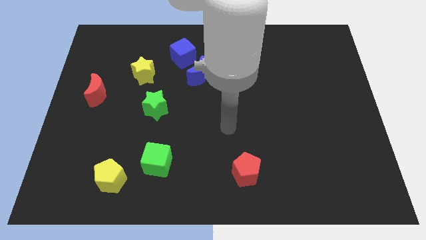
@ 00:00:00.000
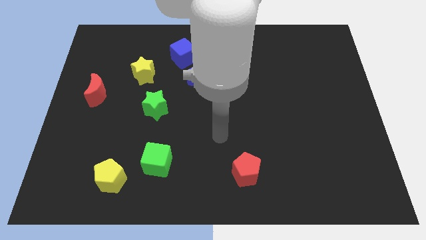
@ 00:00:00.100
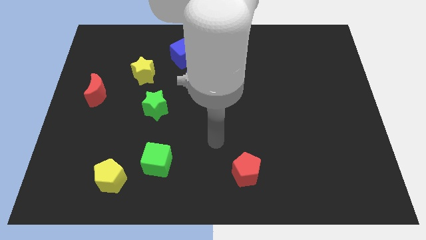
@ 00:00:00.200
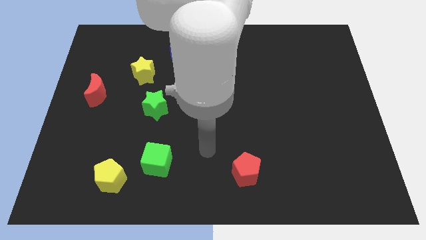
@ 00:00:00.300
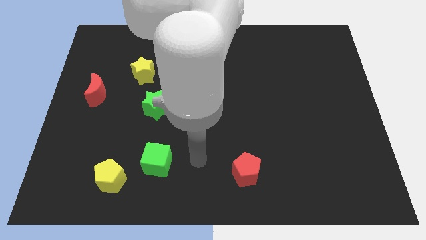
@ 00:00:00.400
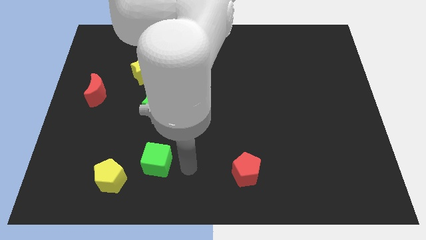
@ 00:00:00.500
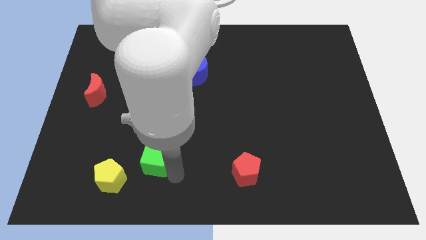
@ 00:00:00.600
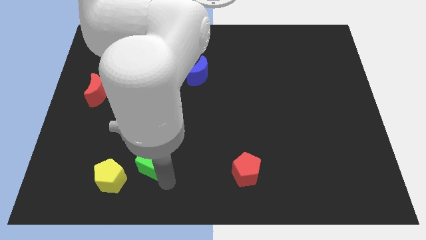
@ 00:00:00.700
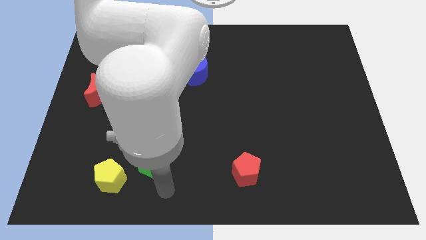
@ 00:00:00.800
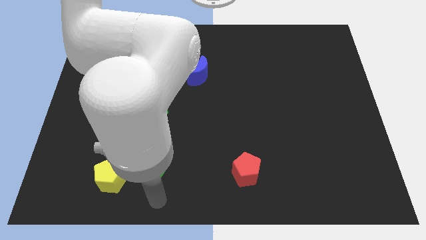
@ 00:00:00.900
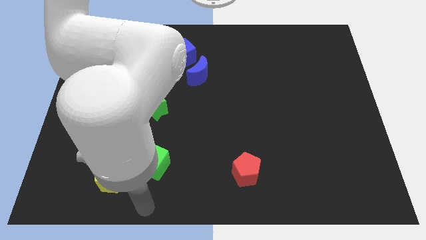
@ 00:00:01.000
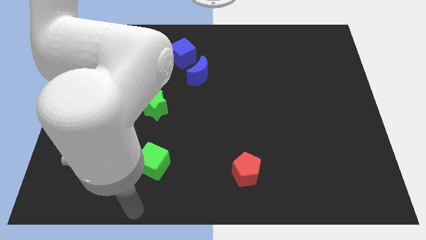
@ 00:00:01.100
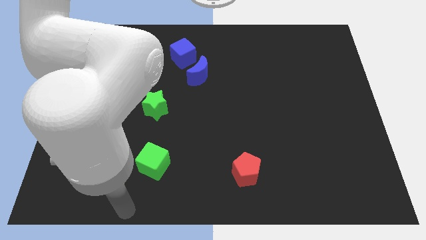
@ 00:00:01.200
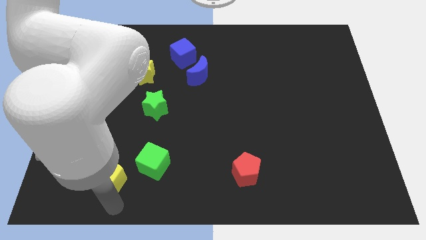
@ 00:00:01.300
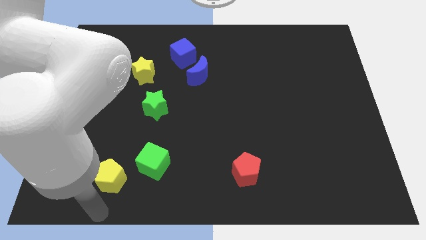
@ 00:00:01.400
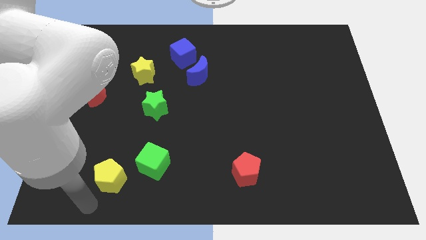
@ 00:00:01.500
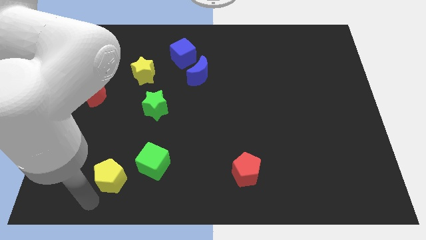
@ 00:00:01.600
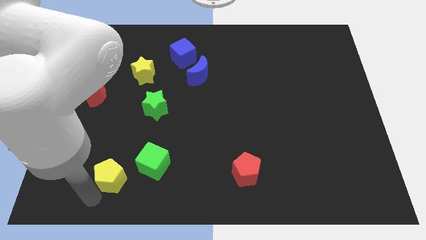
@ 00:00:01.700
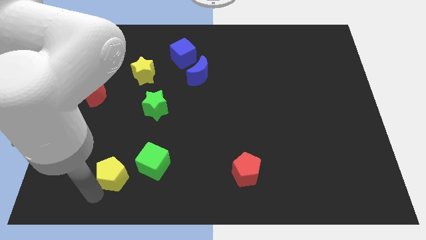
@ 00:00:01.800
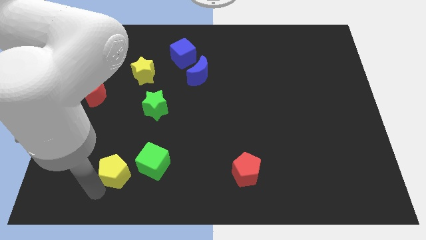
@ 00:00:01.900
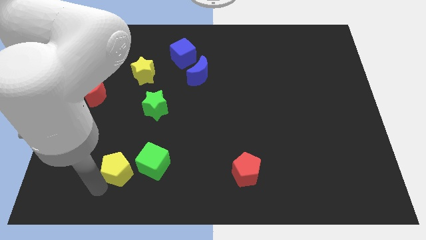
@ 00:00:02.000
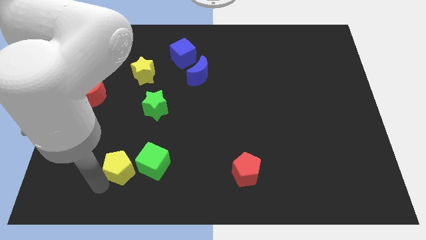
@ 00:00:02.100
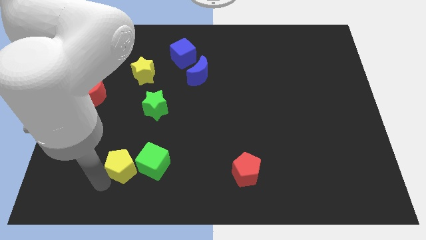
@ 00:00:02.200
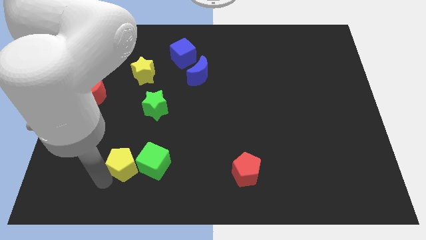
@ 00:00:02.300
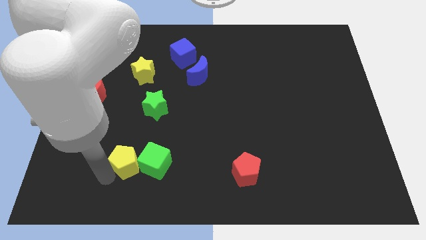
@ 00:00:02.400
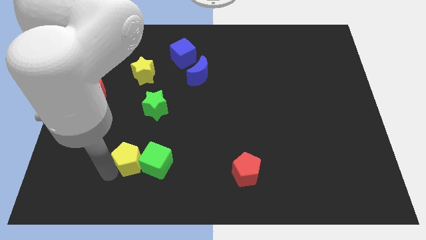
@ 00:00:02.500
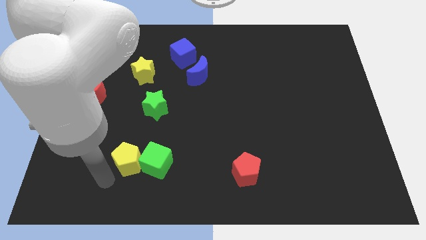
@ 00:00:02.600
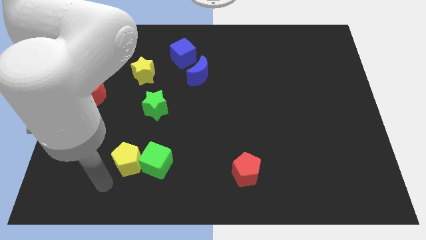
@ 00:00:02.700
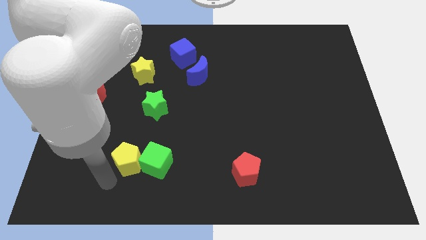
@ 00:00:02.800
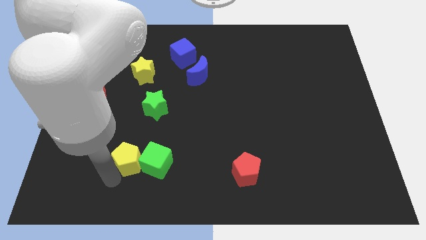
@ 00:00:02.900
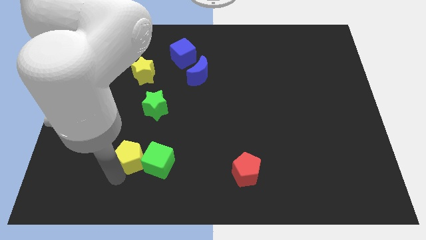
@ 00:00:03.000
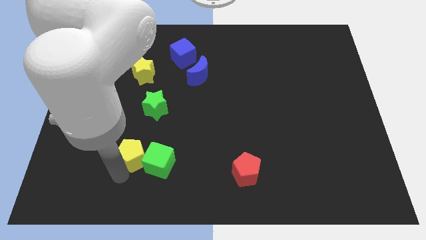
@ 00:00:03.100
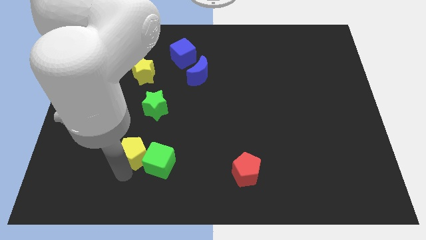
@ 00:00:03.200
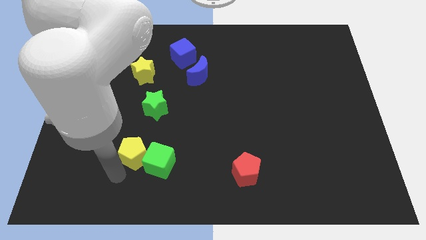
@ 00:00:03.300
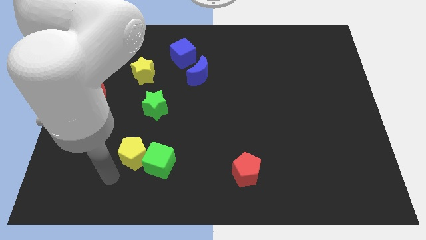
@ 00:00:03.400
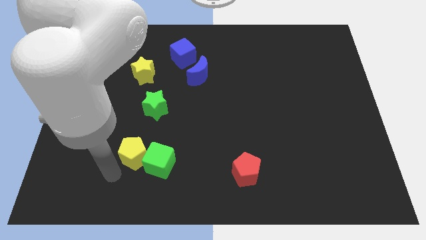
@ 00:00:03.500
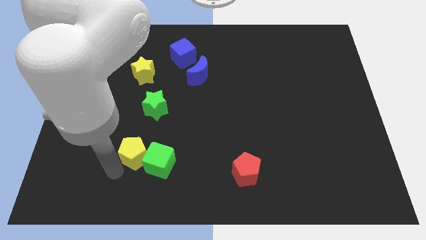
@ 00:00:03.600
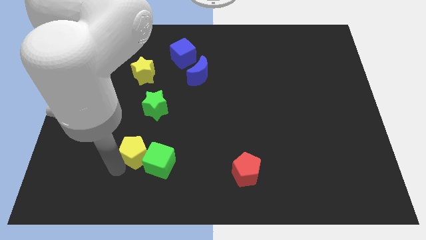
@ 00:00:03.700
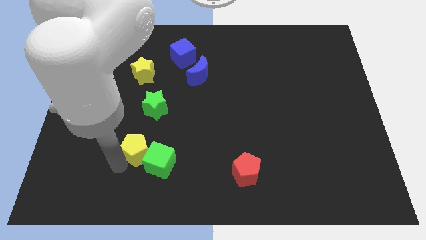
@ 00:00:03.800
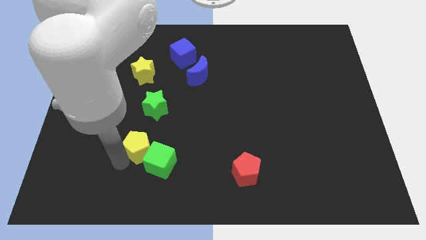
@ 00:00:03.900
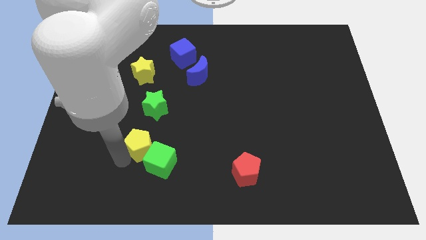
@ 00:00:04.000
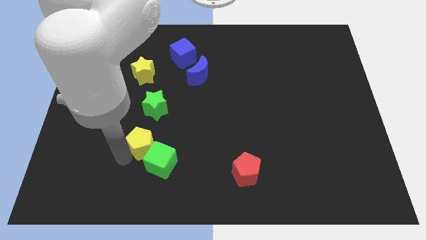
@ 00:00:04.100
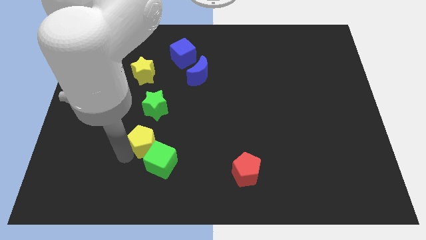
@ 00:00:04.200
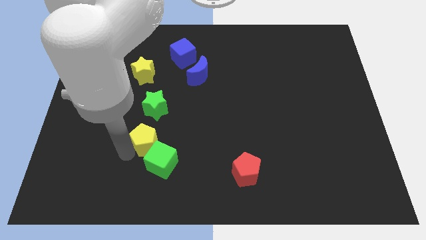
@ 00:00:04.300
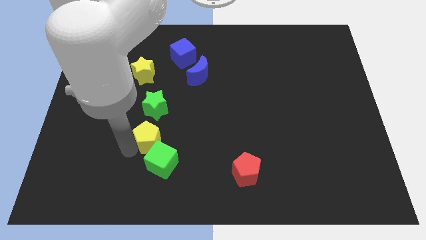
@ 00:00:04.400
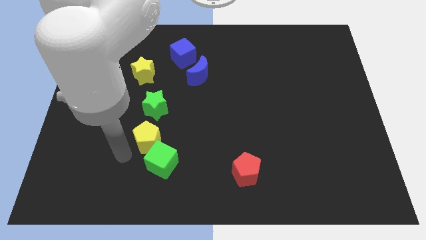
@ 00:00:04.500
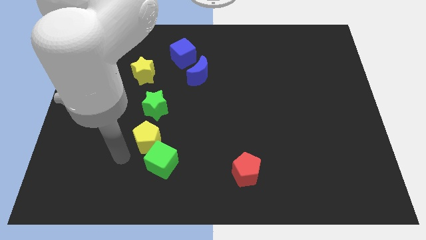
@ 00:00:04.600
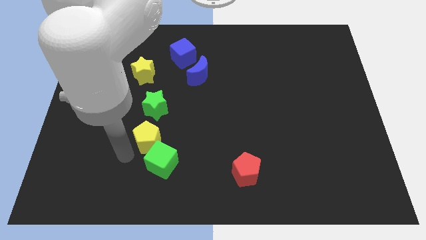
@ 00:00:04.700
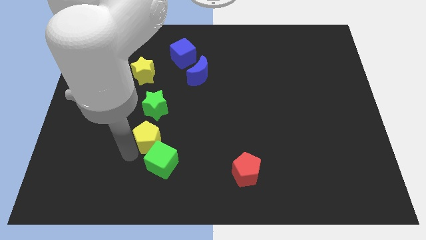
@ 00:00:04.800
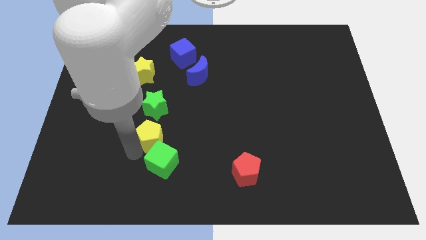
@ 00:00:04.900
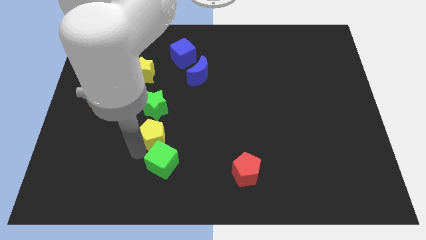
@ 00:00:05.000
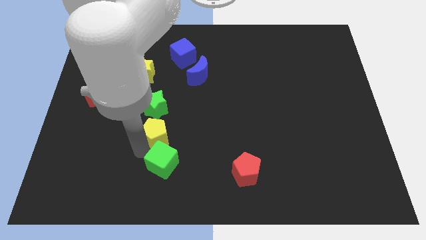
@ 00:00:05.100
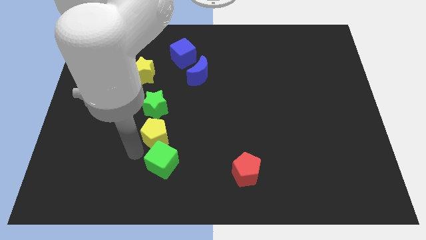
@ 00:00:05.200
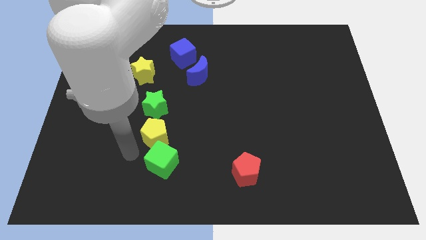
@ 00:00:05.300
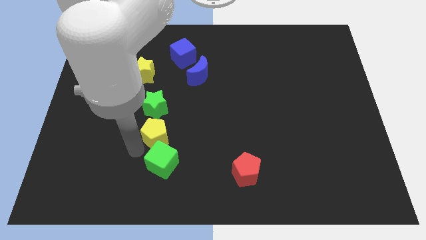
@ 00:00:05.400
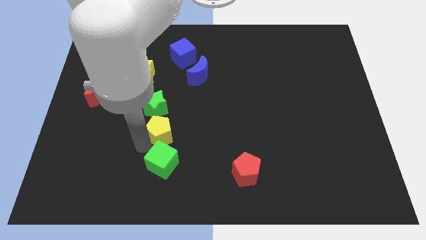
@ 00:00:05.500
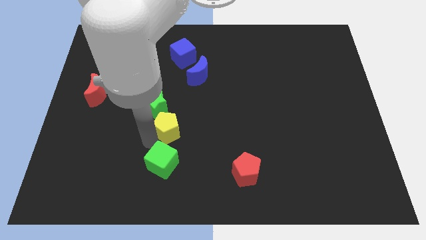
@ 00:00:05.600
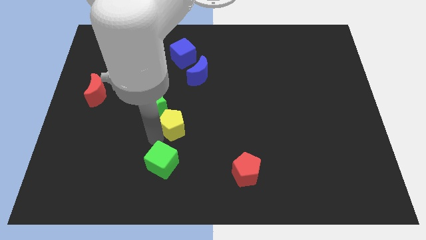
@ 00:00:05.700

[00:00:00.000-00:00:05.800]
move the yellow pentagon to the middle

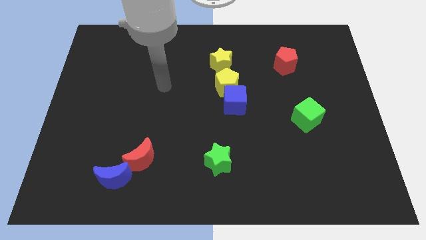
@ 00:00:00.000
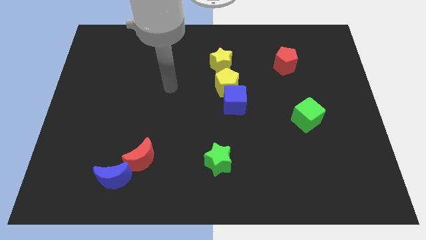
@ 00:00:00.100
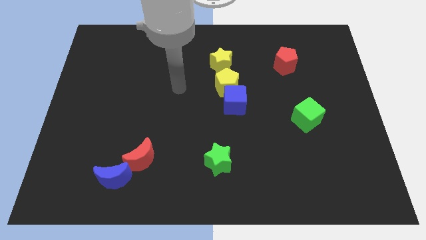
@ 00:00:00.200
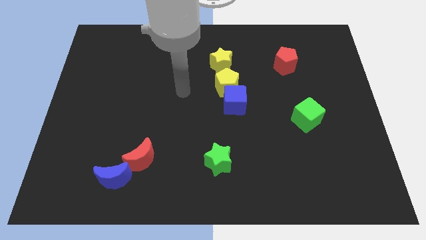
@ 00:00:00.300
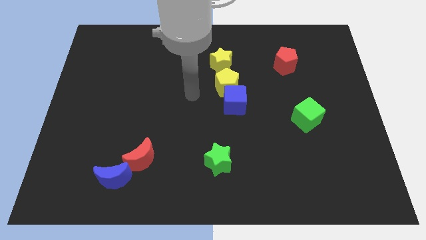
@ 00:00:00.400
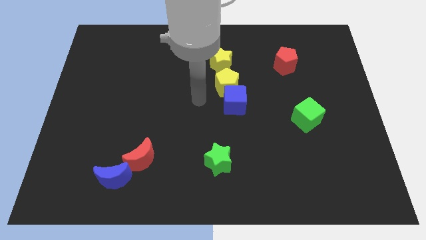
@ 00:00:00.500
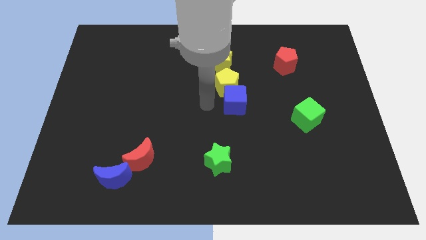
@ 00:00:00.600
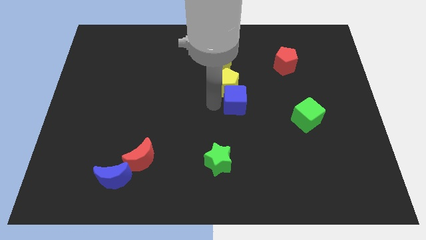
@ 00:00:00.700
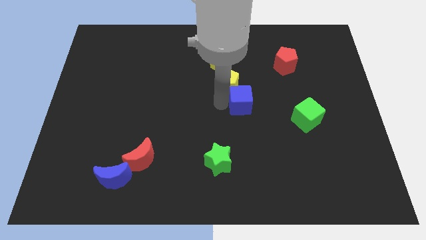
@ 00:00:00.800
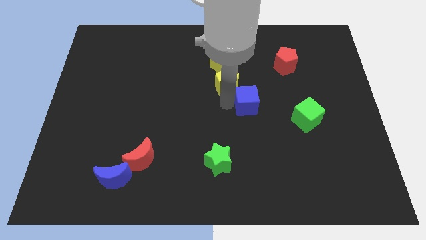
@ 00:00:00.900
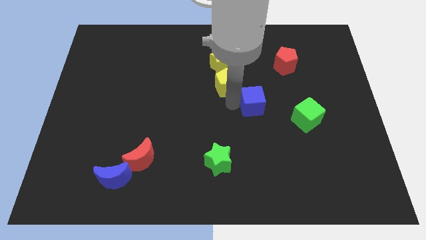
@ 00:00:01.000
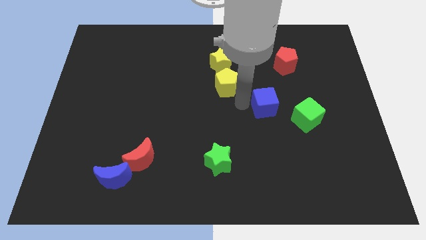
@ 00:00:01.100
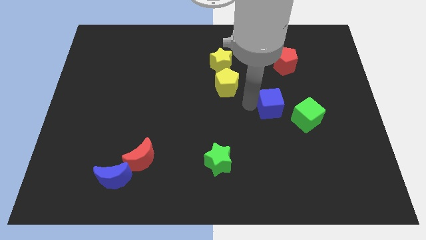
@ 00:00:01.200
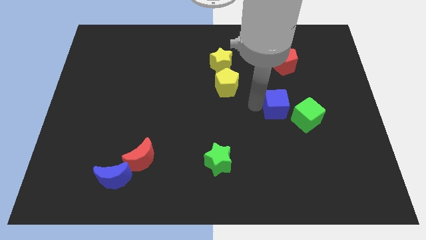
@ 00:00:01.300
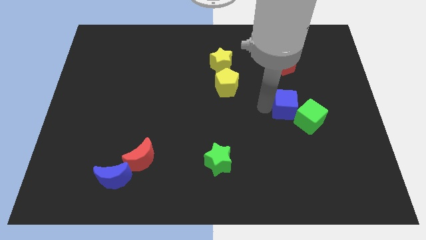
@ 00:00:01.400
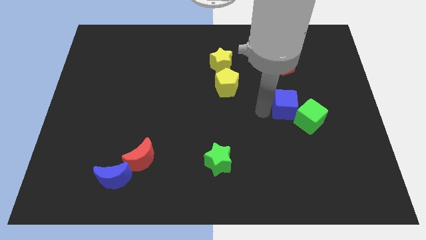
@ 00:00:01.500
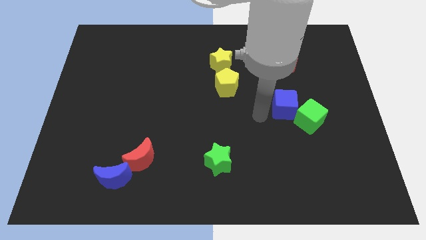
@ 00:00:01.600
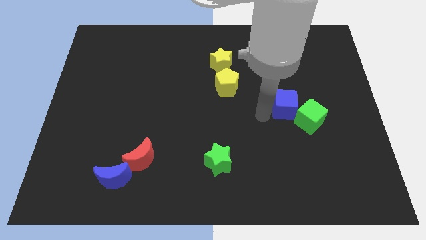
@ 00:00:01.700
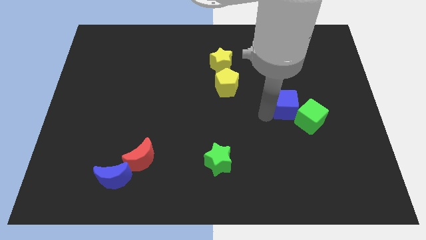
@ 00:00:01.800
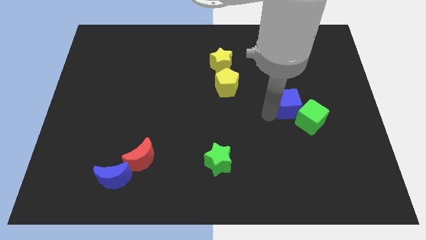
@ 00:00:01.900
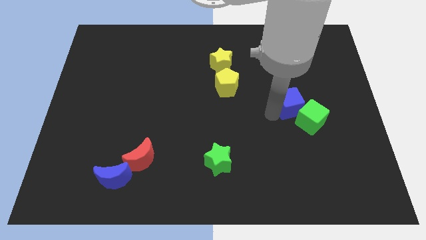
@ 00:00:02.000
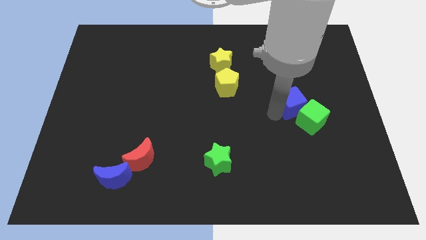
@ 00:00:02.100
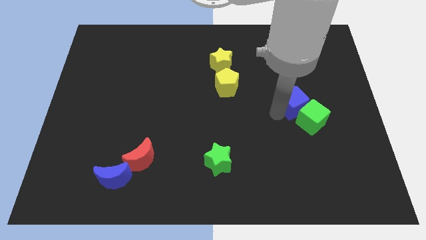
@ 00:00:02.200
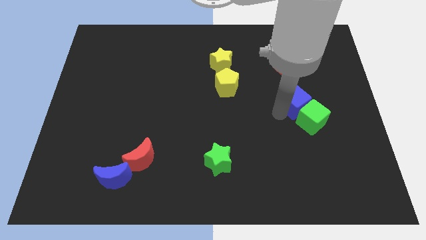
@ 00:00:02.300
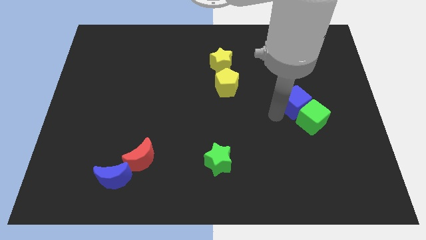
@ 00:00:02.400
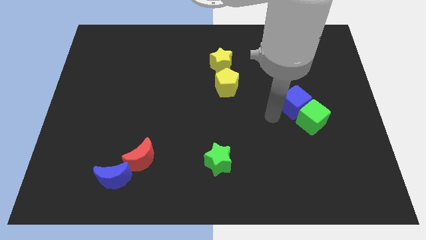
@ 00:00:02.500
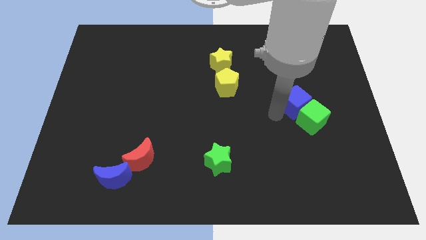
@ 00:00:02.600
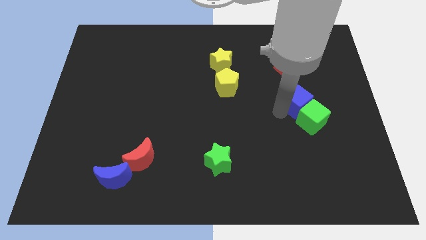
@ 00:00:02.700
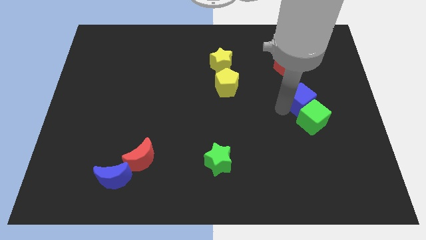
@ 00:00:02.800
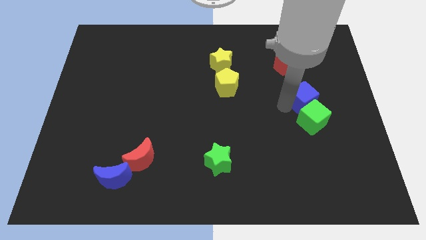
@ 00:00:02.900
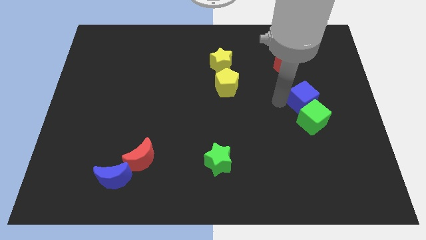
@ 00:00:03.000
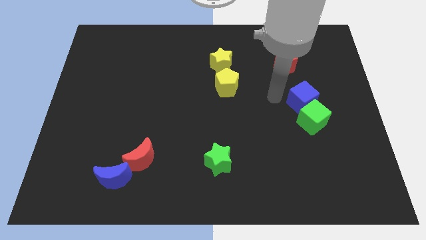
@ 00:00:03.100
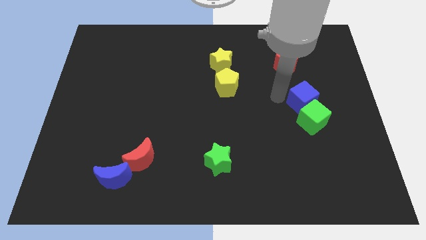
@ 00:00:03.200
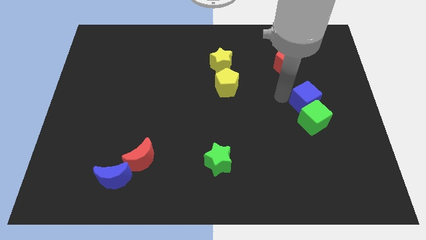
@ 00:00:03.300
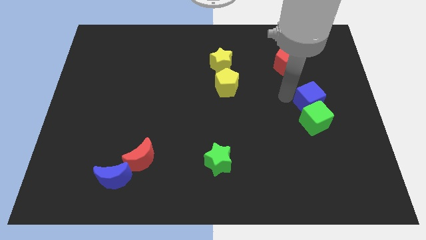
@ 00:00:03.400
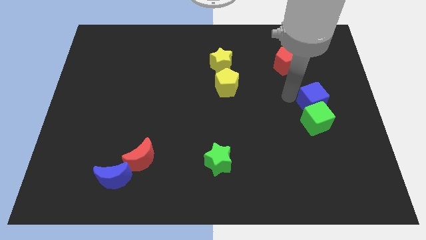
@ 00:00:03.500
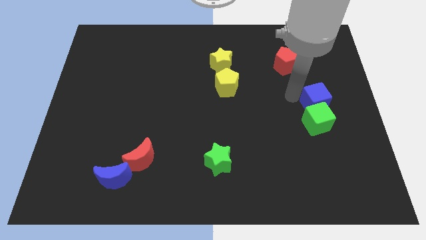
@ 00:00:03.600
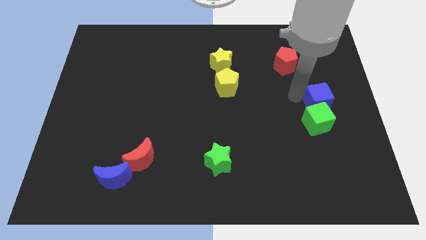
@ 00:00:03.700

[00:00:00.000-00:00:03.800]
push the blue cube to the right side of the board
